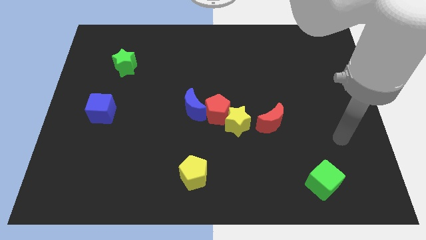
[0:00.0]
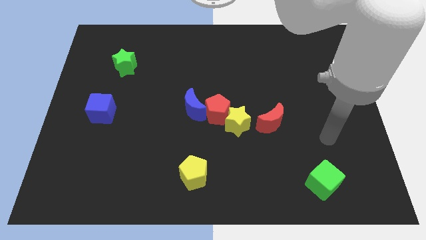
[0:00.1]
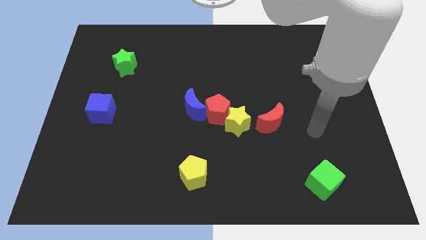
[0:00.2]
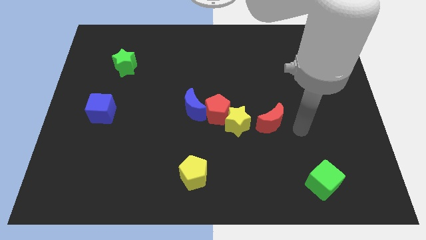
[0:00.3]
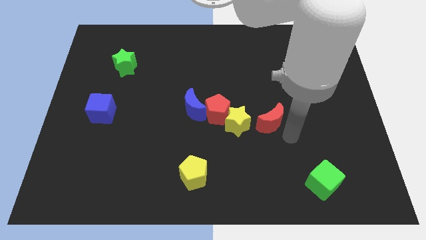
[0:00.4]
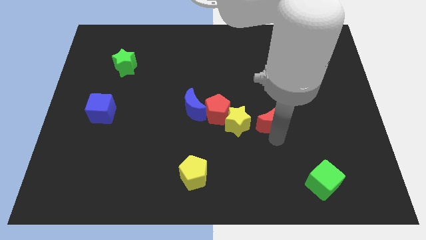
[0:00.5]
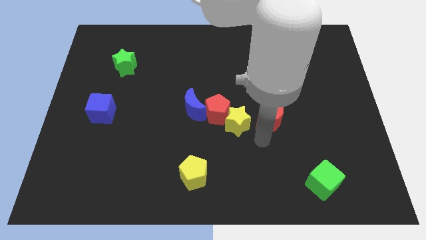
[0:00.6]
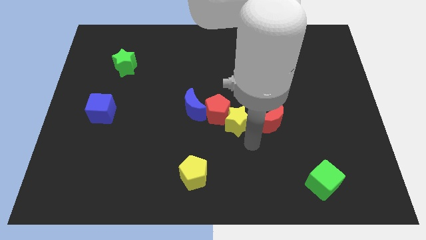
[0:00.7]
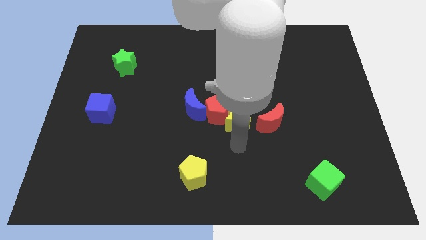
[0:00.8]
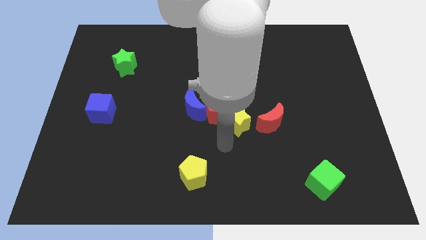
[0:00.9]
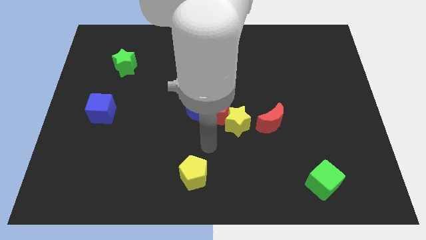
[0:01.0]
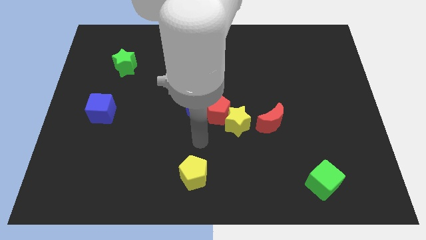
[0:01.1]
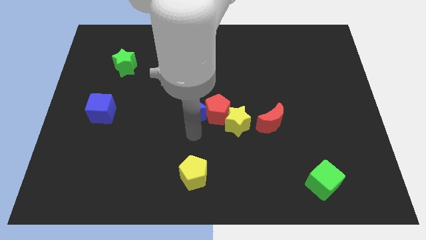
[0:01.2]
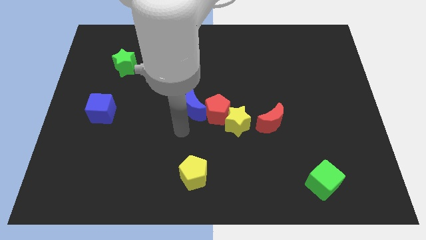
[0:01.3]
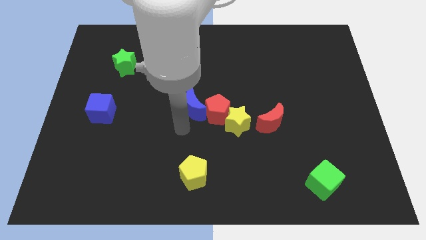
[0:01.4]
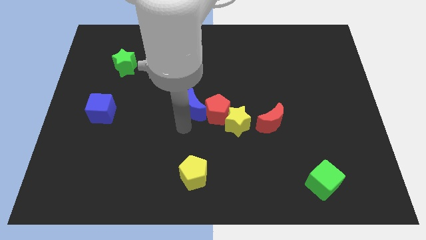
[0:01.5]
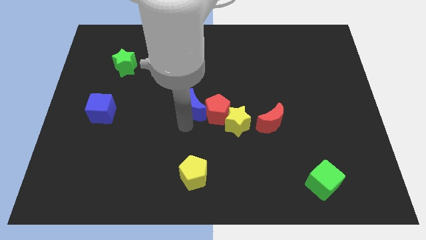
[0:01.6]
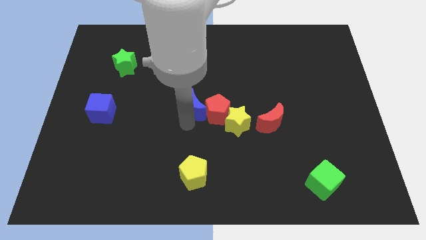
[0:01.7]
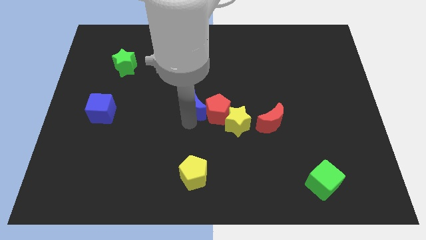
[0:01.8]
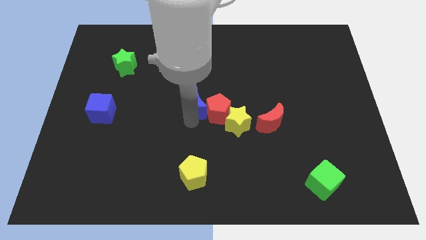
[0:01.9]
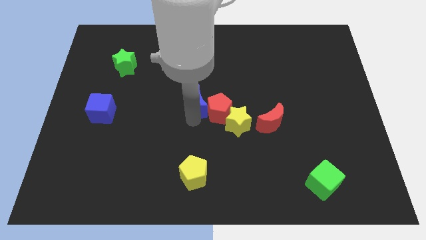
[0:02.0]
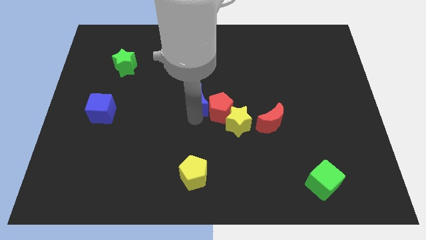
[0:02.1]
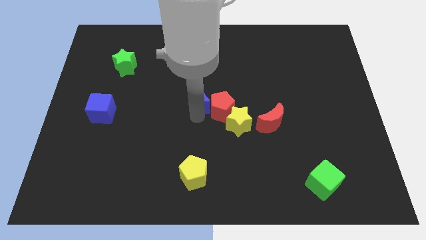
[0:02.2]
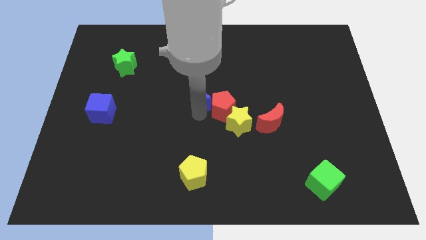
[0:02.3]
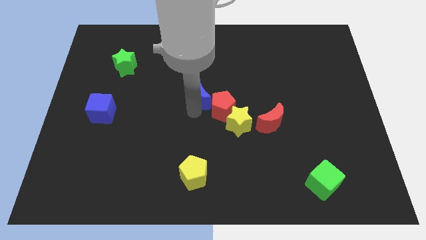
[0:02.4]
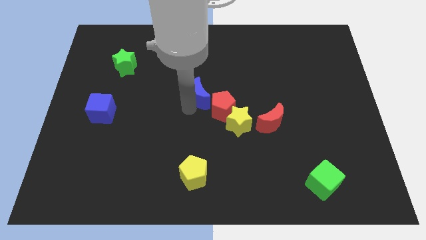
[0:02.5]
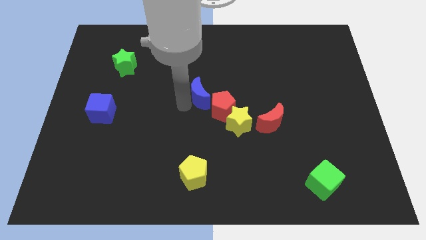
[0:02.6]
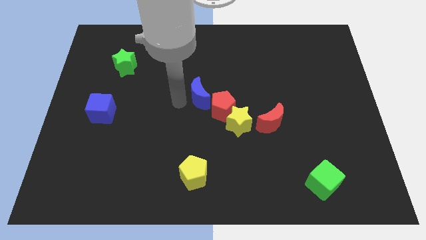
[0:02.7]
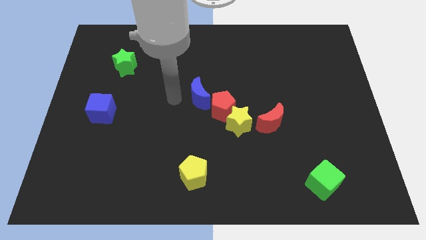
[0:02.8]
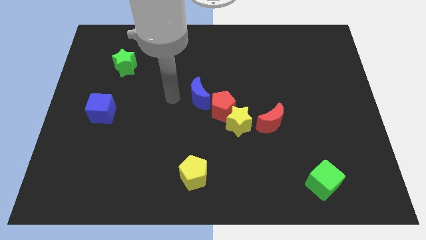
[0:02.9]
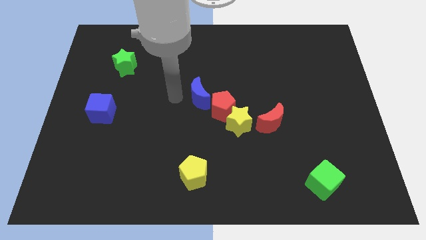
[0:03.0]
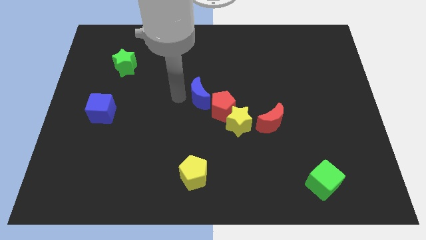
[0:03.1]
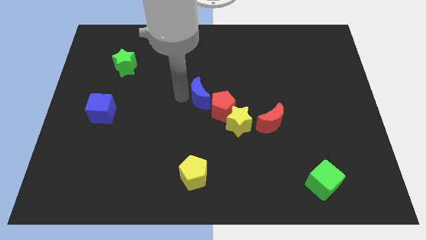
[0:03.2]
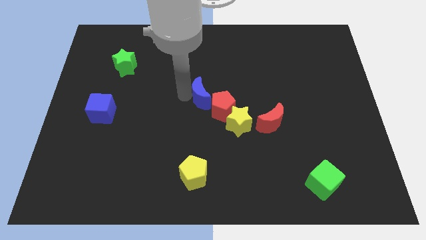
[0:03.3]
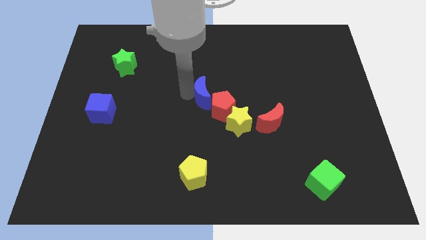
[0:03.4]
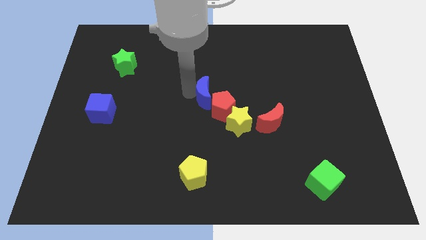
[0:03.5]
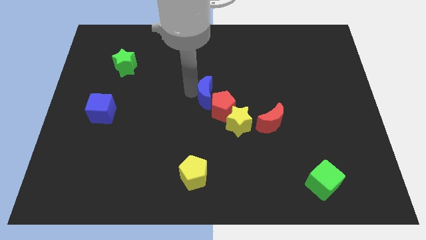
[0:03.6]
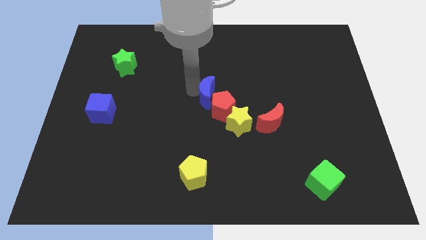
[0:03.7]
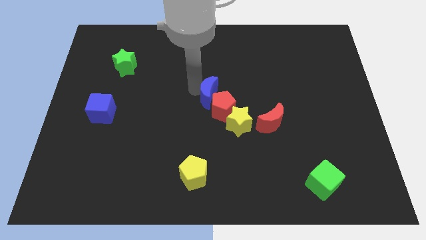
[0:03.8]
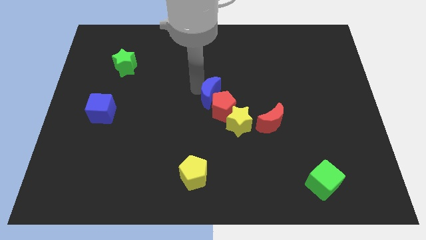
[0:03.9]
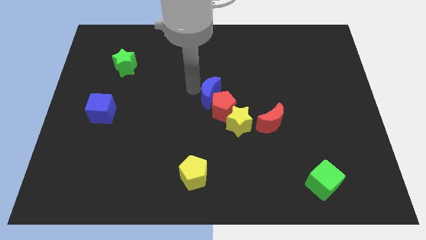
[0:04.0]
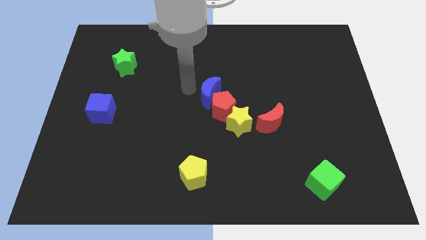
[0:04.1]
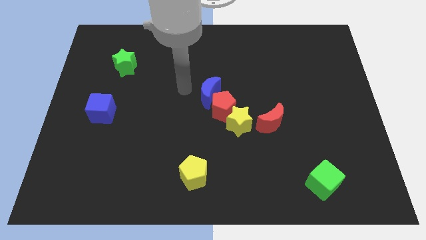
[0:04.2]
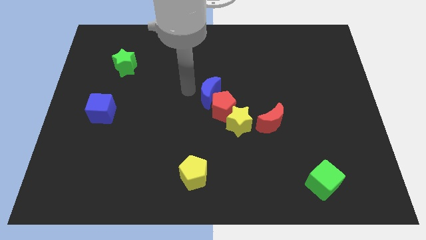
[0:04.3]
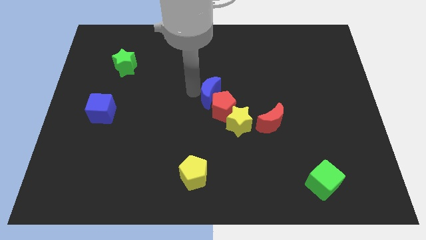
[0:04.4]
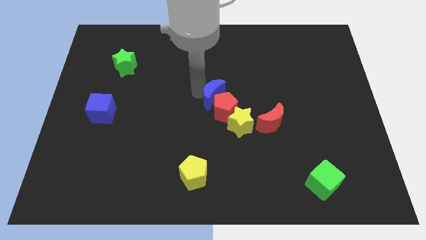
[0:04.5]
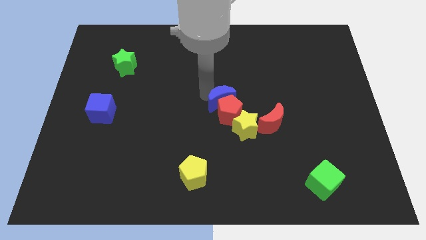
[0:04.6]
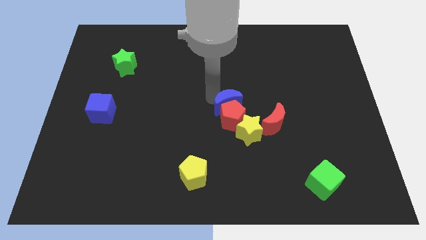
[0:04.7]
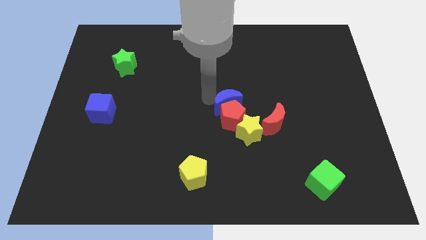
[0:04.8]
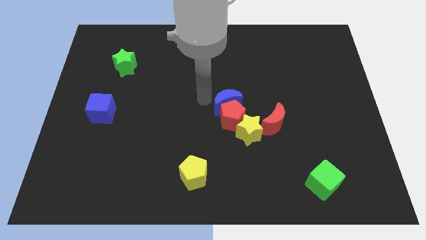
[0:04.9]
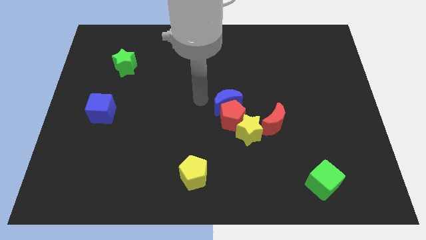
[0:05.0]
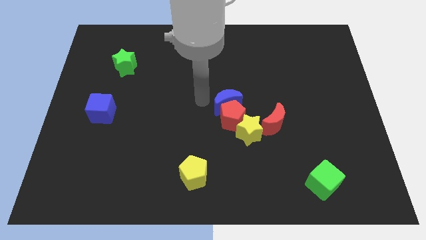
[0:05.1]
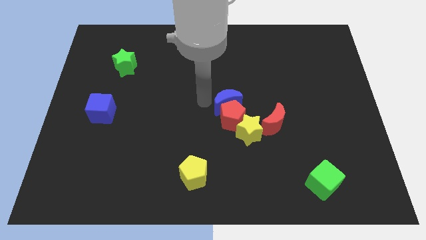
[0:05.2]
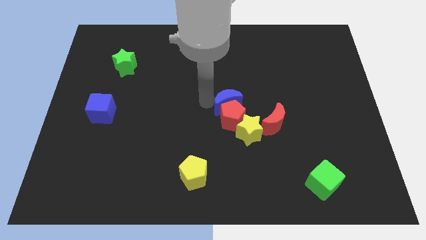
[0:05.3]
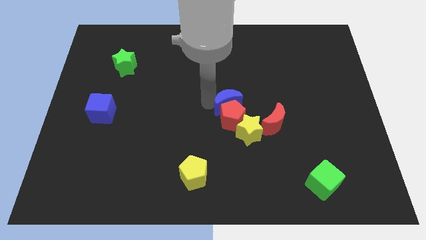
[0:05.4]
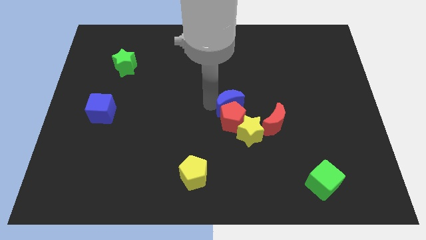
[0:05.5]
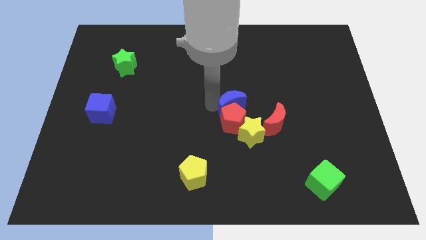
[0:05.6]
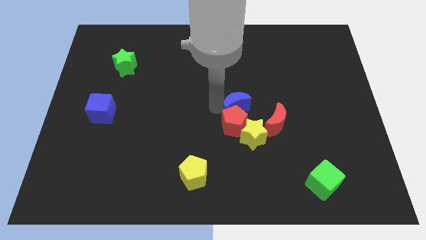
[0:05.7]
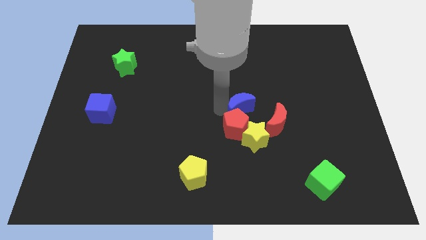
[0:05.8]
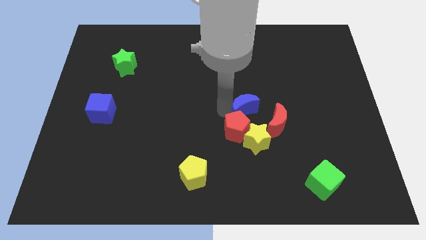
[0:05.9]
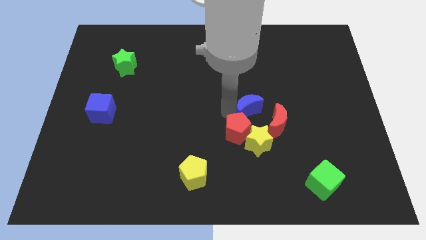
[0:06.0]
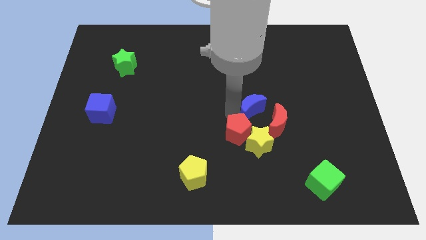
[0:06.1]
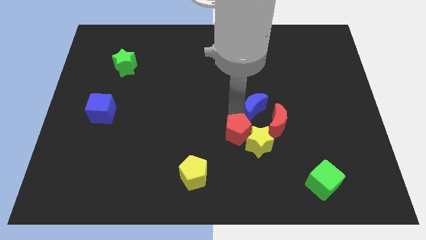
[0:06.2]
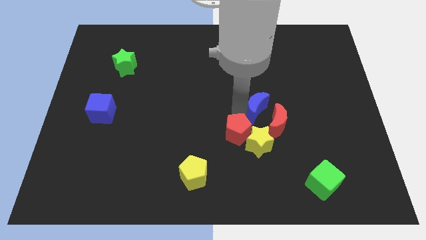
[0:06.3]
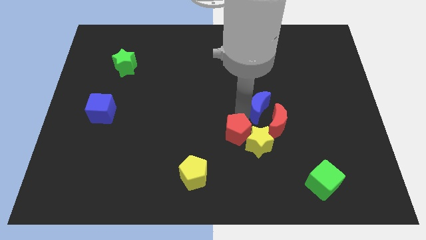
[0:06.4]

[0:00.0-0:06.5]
slide the blue moon towards the red moon

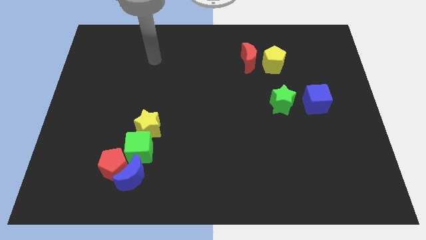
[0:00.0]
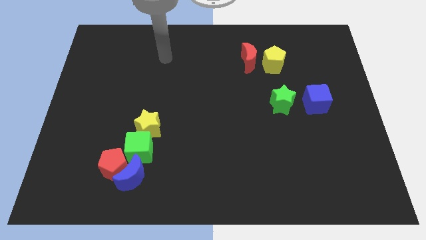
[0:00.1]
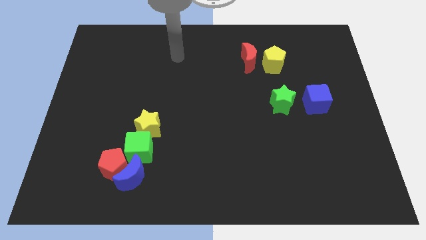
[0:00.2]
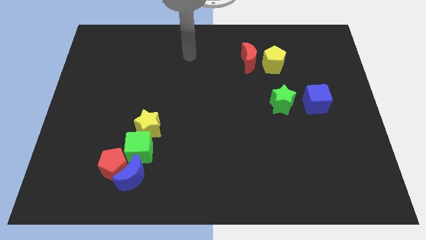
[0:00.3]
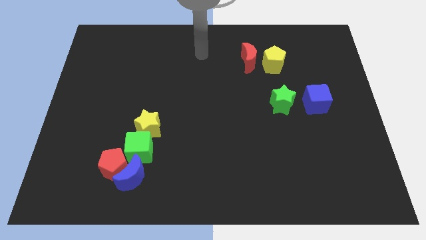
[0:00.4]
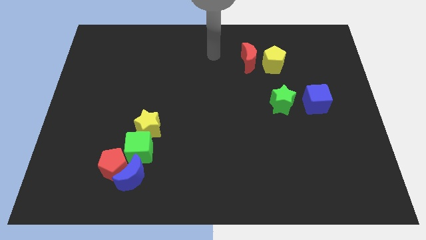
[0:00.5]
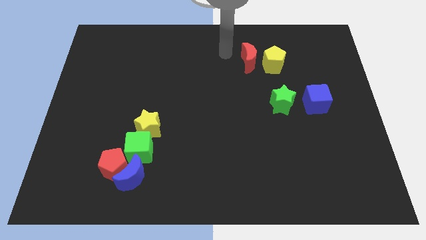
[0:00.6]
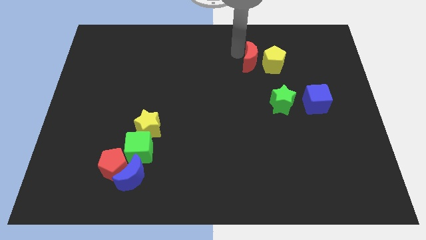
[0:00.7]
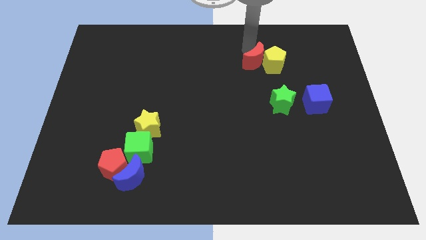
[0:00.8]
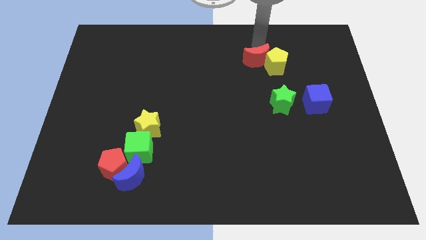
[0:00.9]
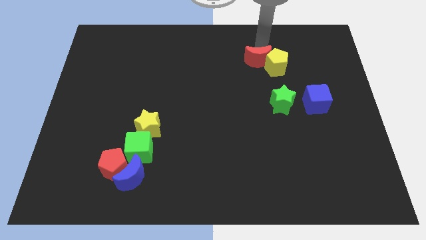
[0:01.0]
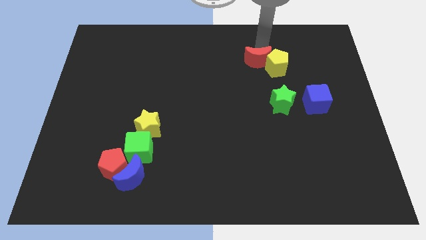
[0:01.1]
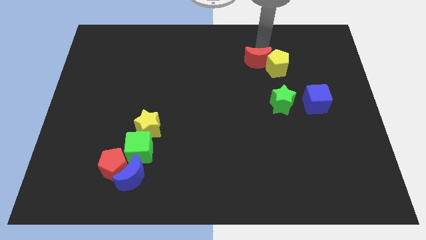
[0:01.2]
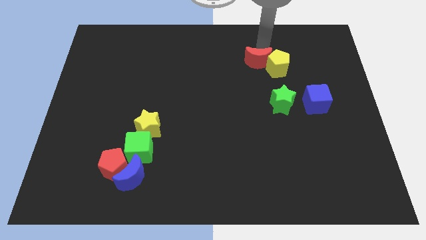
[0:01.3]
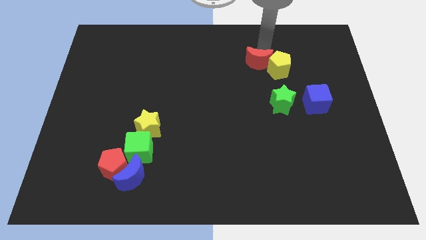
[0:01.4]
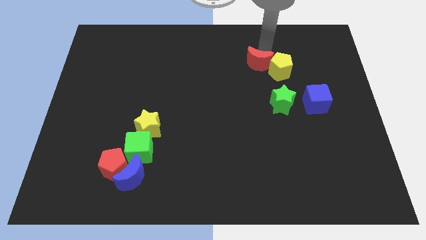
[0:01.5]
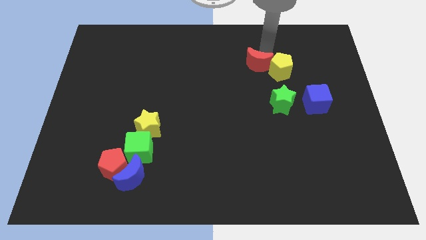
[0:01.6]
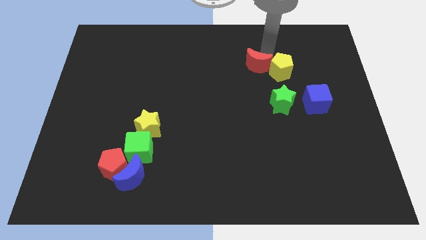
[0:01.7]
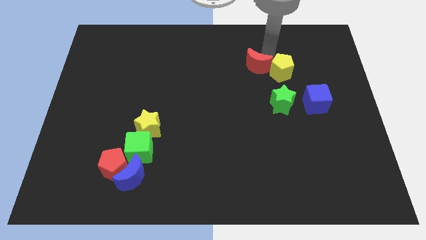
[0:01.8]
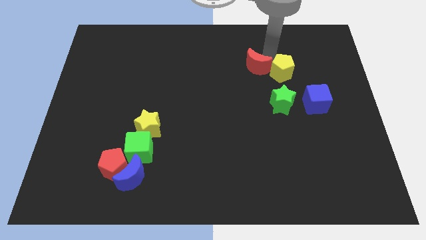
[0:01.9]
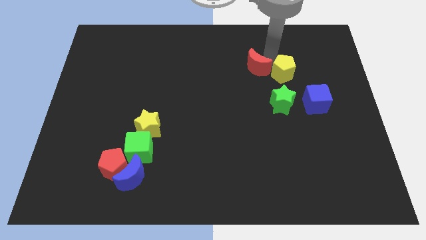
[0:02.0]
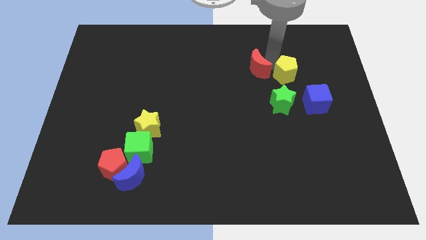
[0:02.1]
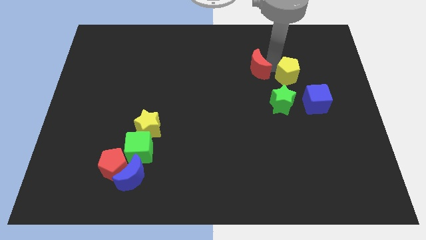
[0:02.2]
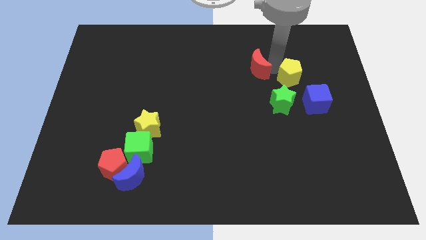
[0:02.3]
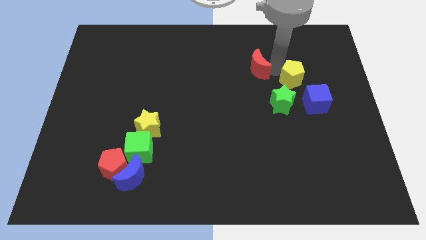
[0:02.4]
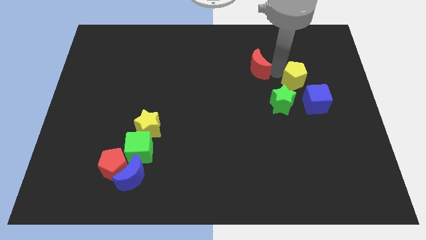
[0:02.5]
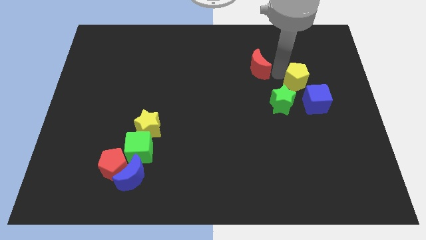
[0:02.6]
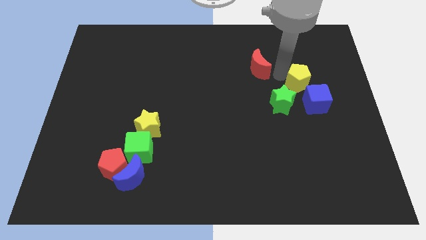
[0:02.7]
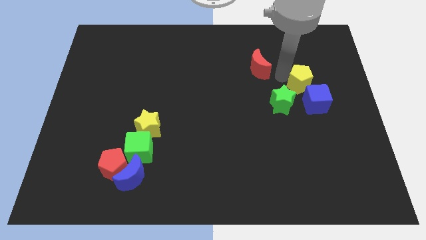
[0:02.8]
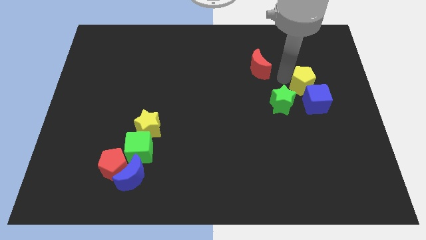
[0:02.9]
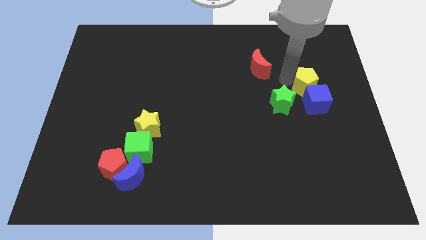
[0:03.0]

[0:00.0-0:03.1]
move the yellow pentagon close to the blue cube
